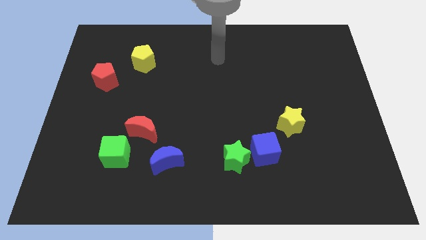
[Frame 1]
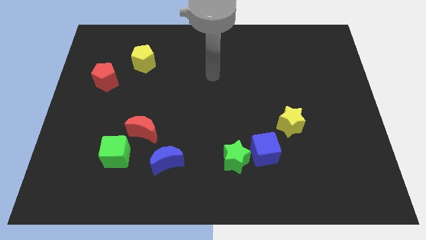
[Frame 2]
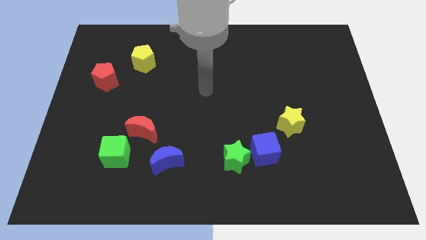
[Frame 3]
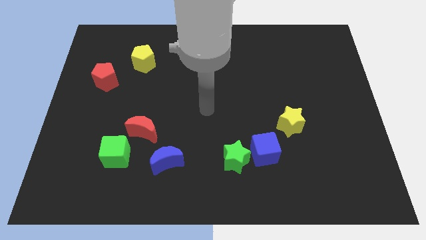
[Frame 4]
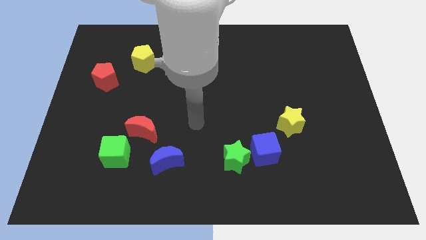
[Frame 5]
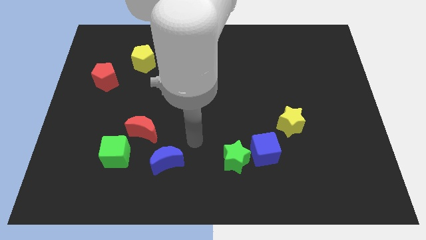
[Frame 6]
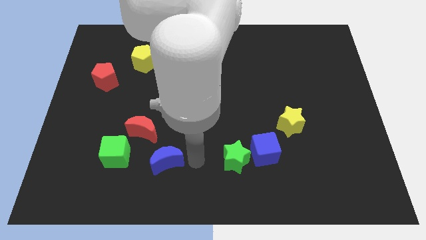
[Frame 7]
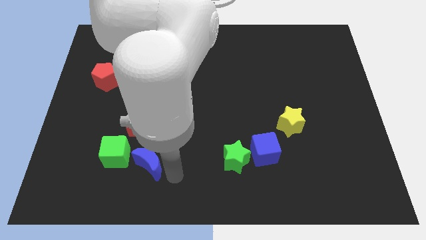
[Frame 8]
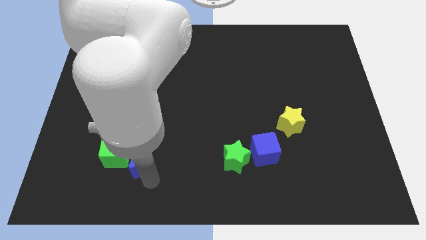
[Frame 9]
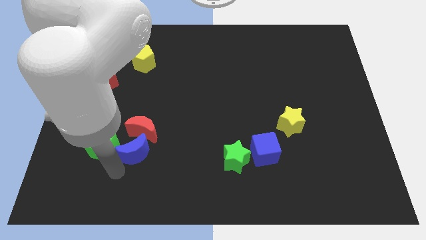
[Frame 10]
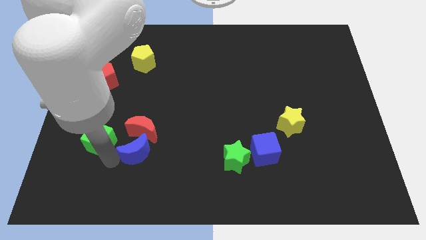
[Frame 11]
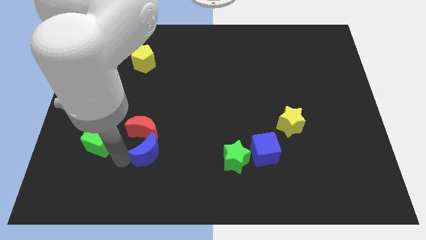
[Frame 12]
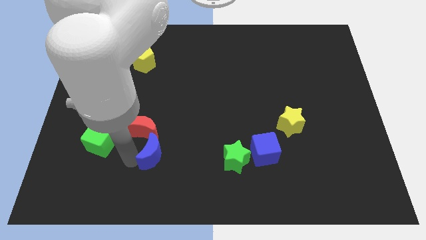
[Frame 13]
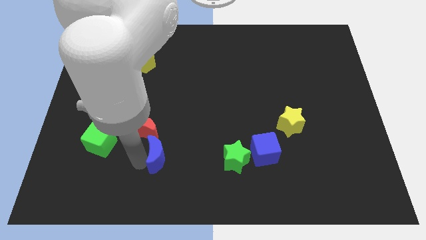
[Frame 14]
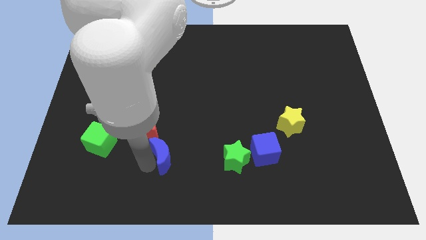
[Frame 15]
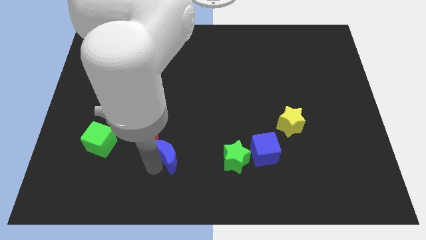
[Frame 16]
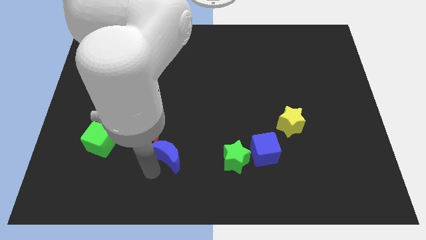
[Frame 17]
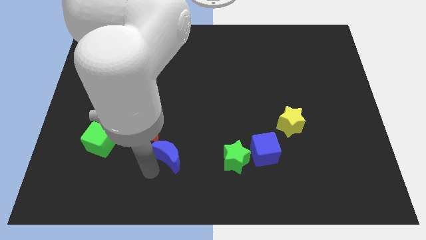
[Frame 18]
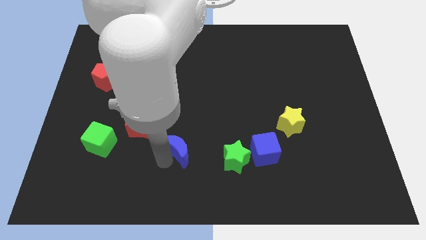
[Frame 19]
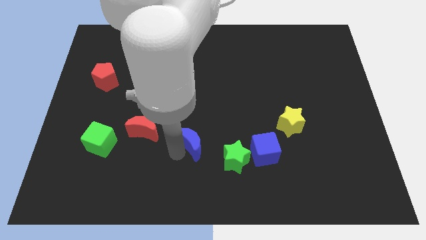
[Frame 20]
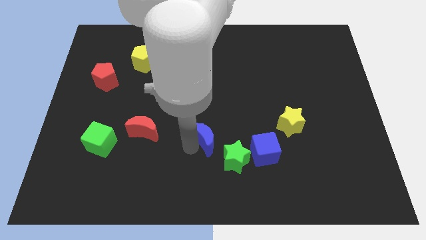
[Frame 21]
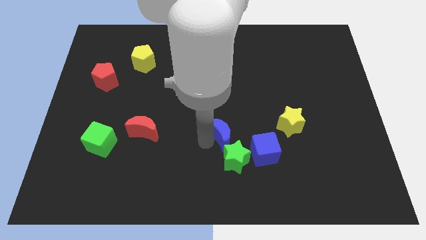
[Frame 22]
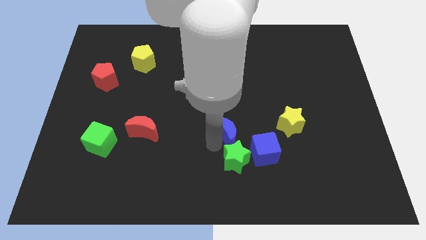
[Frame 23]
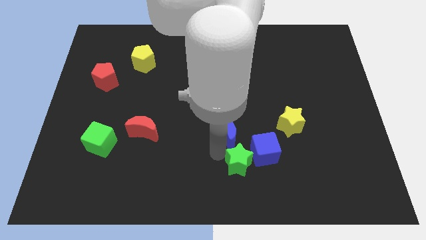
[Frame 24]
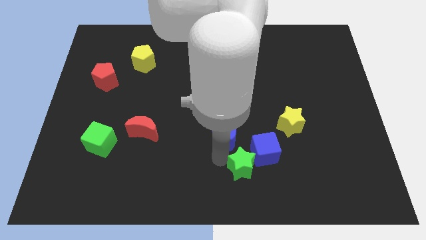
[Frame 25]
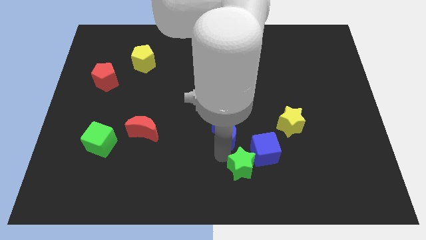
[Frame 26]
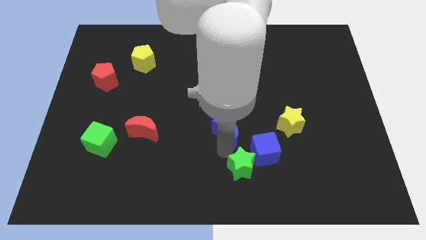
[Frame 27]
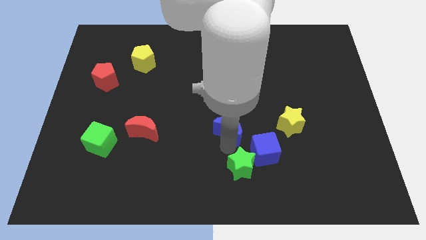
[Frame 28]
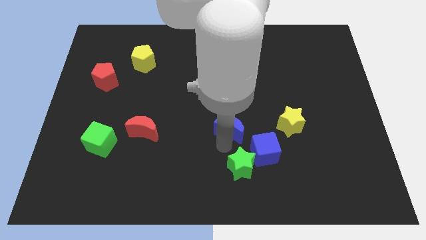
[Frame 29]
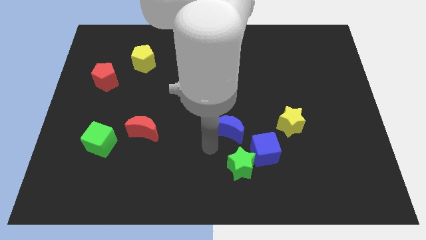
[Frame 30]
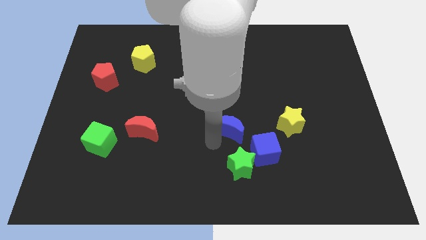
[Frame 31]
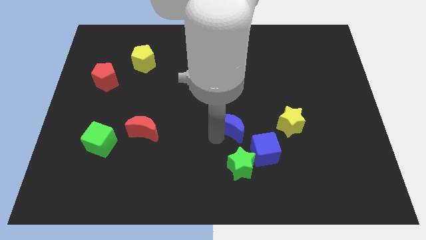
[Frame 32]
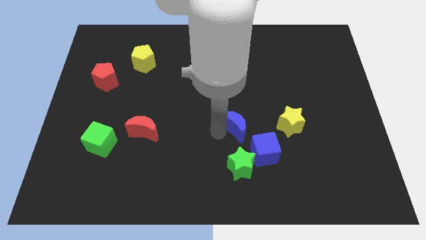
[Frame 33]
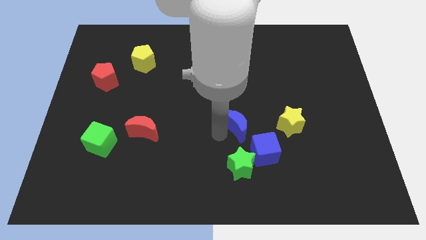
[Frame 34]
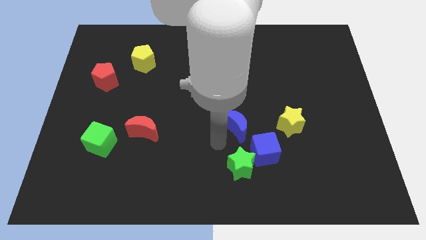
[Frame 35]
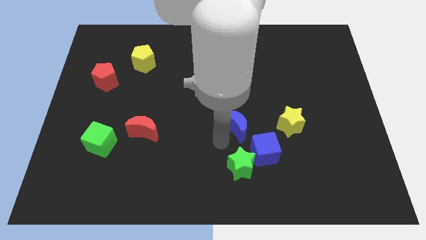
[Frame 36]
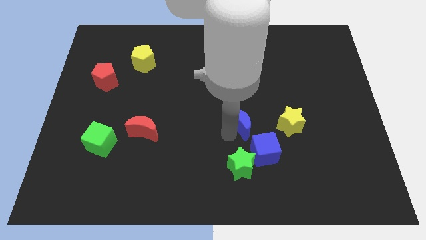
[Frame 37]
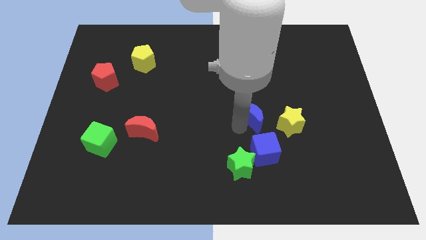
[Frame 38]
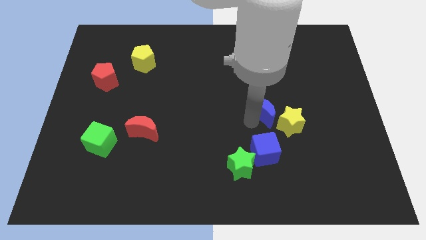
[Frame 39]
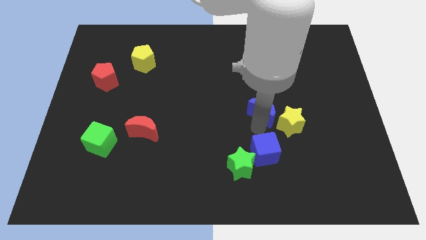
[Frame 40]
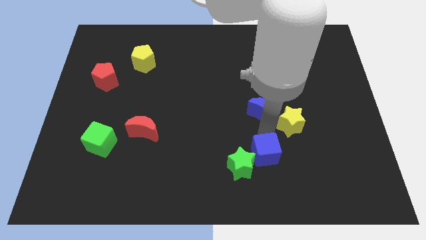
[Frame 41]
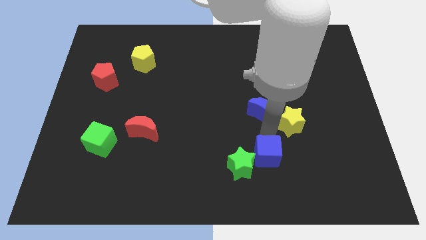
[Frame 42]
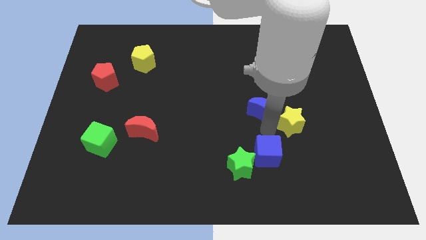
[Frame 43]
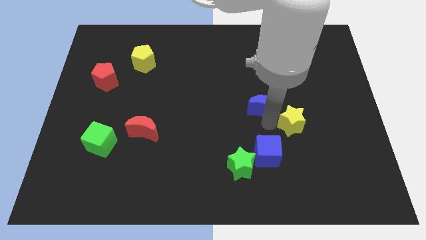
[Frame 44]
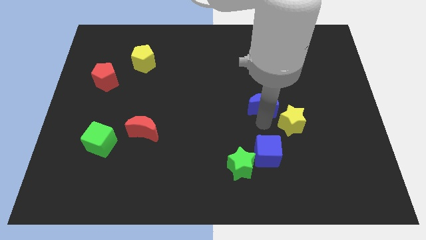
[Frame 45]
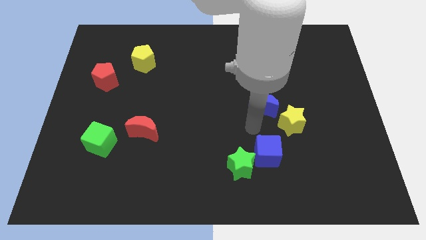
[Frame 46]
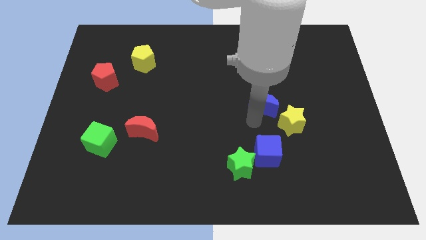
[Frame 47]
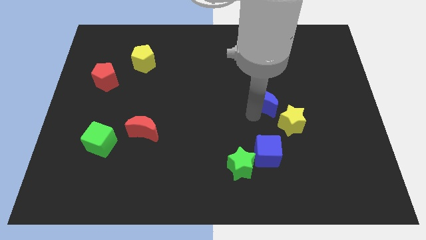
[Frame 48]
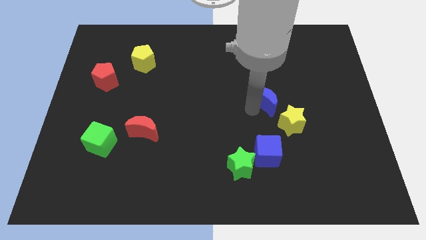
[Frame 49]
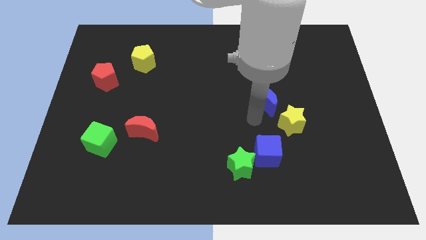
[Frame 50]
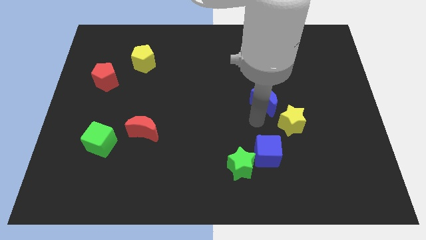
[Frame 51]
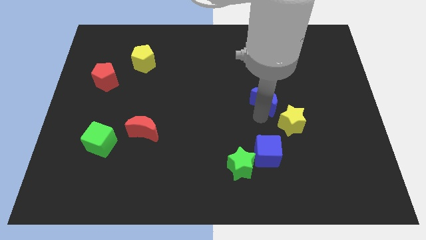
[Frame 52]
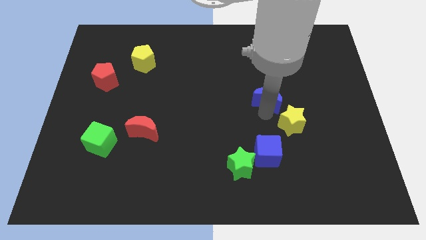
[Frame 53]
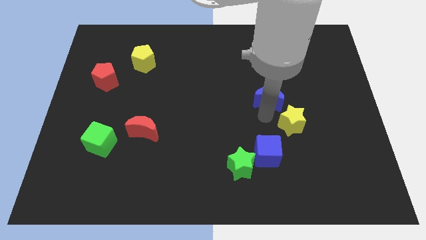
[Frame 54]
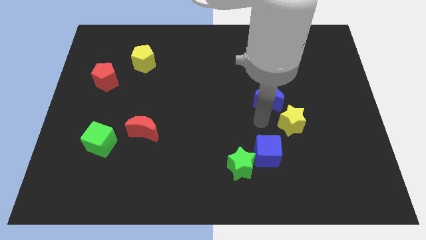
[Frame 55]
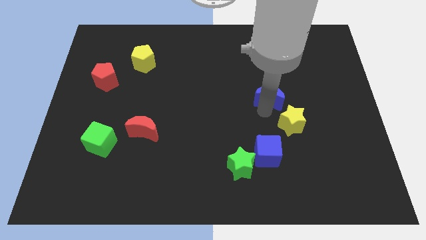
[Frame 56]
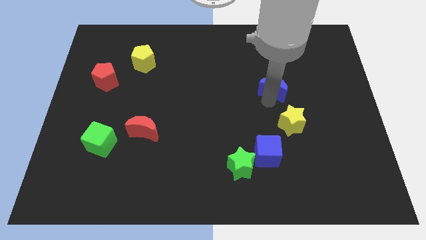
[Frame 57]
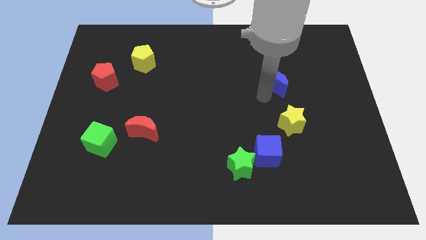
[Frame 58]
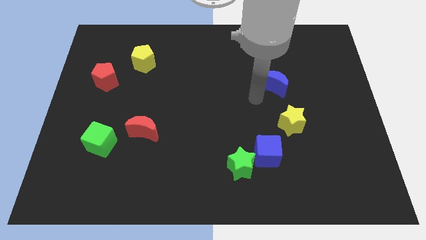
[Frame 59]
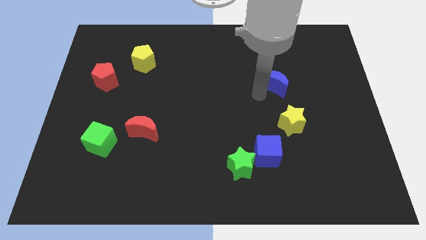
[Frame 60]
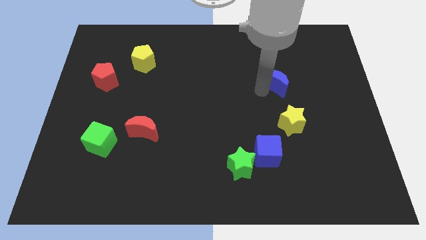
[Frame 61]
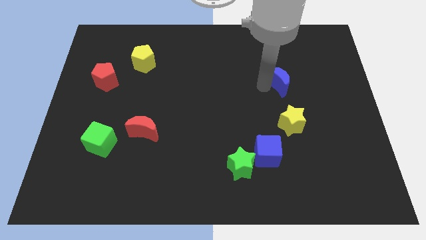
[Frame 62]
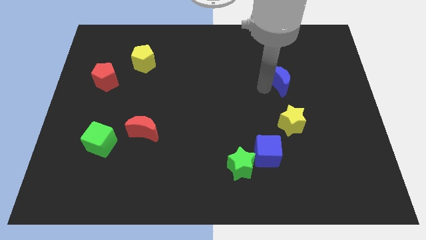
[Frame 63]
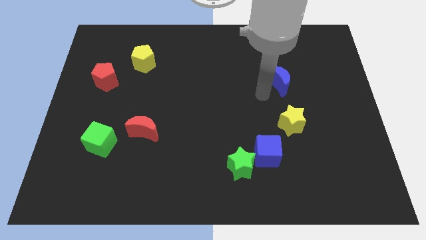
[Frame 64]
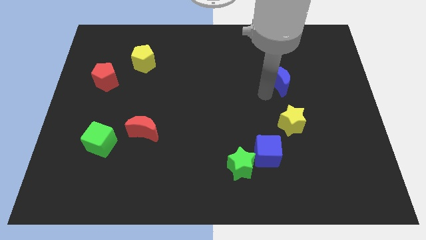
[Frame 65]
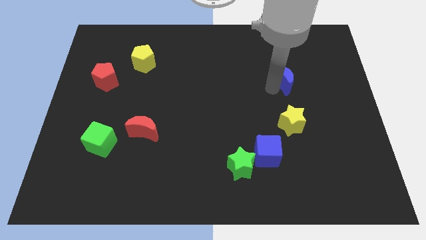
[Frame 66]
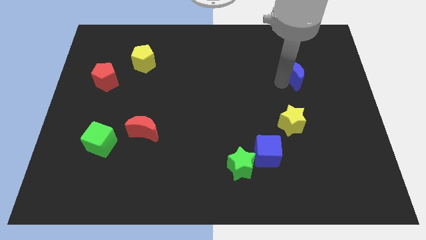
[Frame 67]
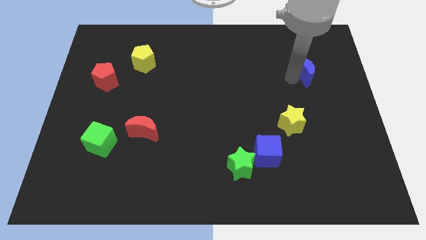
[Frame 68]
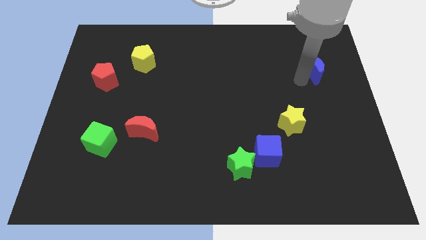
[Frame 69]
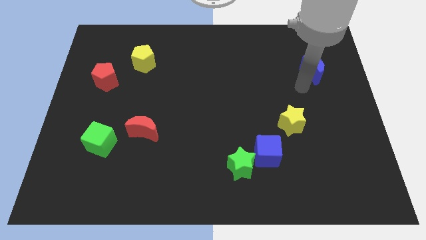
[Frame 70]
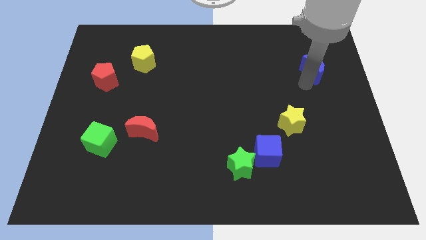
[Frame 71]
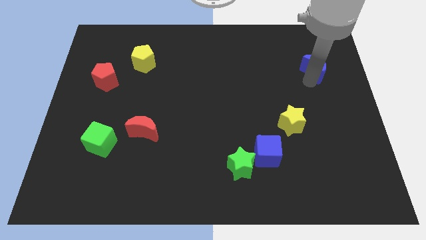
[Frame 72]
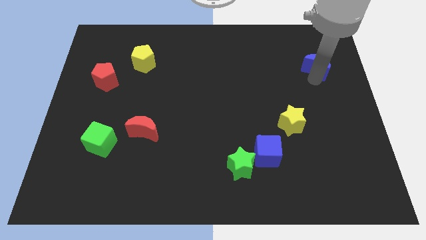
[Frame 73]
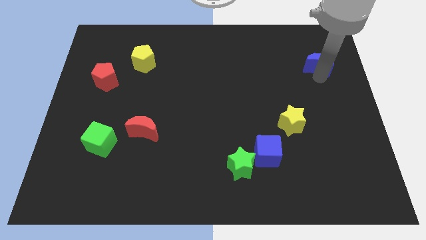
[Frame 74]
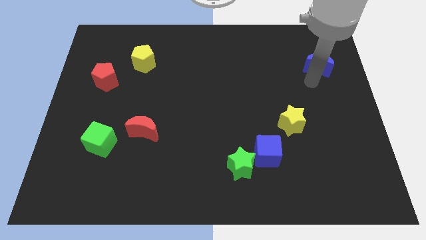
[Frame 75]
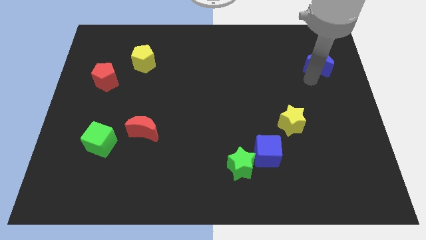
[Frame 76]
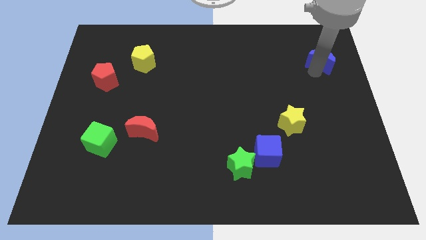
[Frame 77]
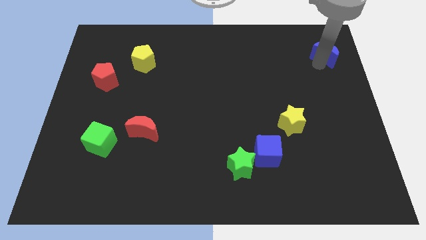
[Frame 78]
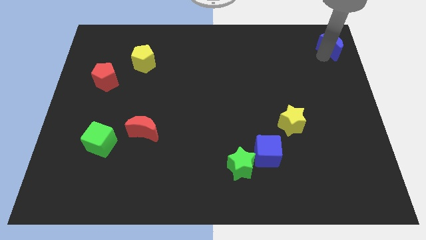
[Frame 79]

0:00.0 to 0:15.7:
put the blue moon to the top right of the board
